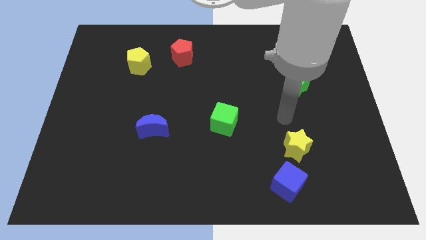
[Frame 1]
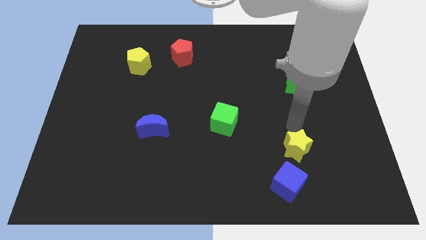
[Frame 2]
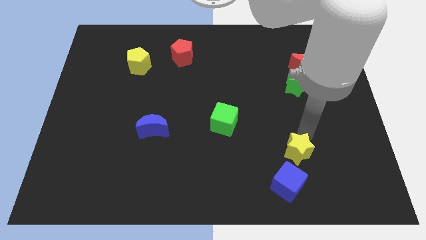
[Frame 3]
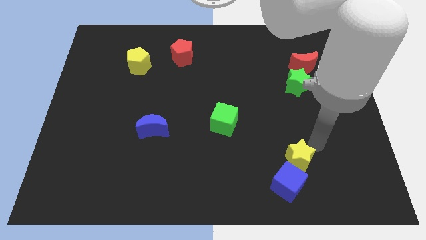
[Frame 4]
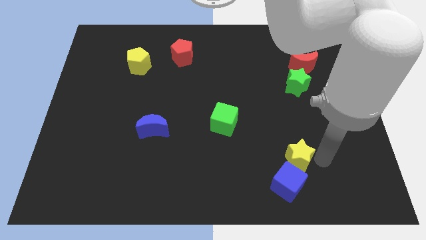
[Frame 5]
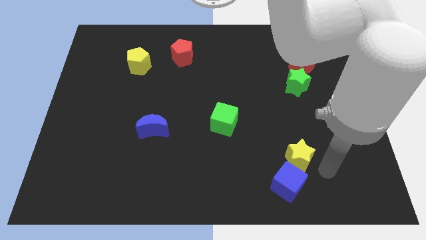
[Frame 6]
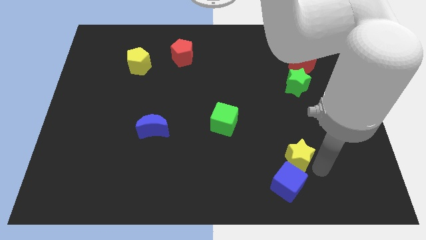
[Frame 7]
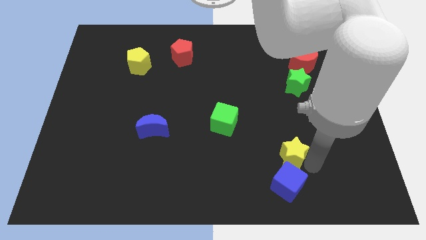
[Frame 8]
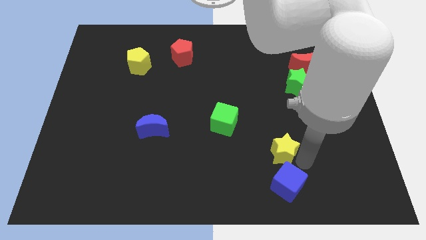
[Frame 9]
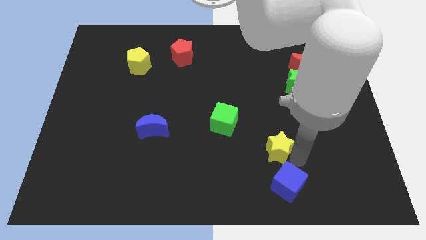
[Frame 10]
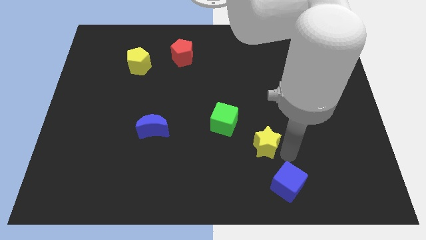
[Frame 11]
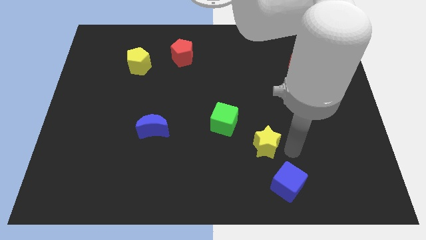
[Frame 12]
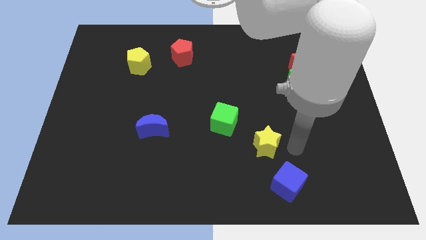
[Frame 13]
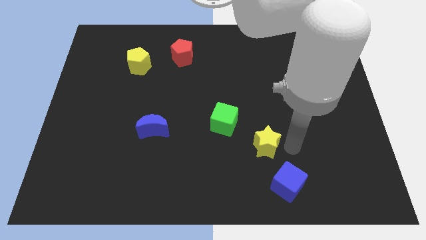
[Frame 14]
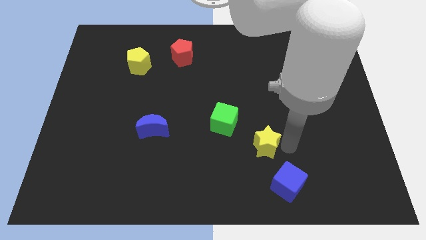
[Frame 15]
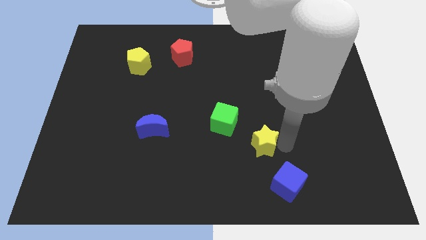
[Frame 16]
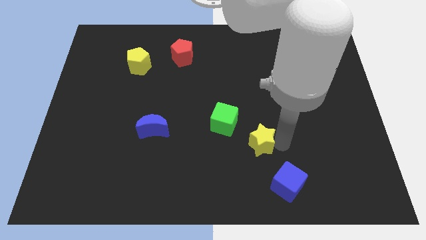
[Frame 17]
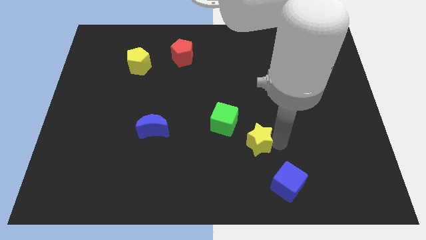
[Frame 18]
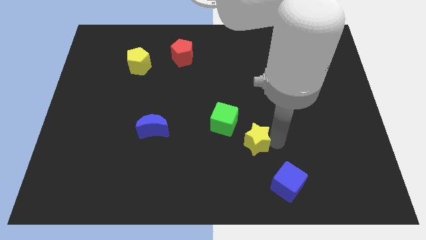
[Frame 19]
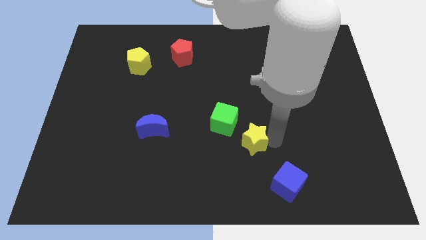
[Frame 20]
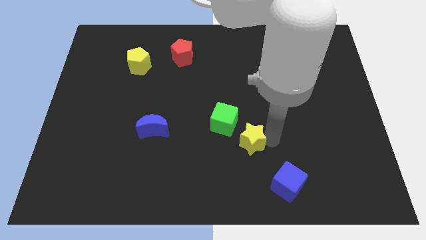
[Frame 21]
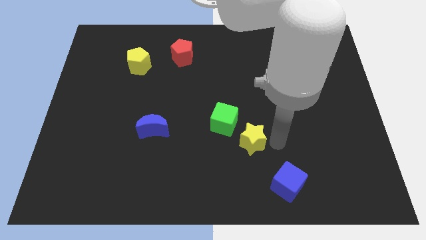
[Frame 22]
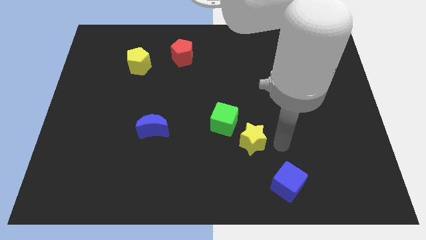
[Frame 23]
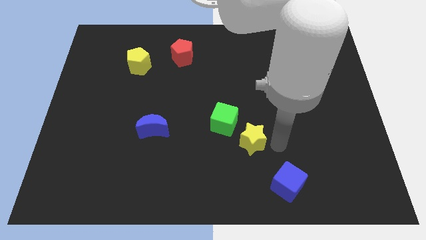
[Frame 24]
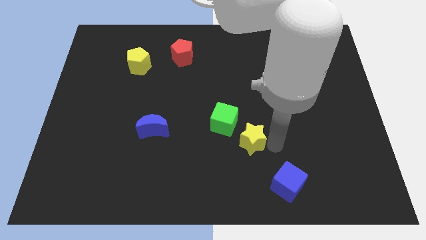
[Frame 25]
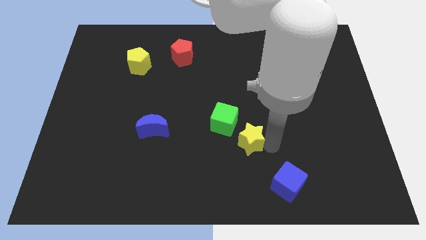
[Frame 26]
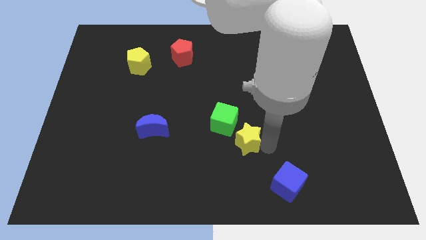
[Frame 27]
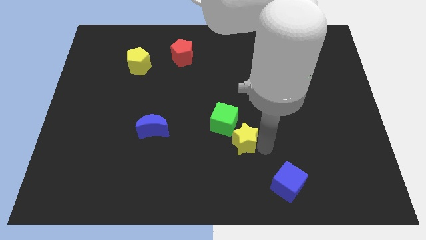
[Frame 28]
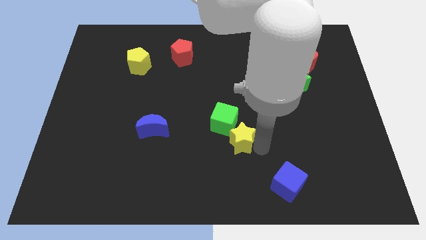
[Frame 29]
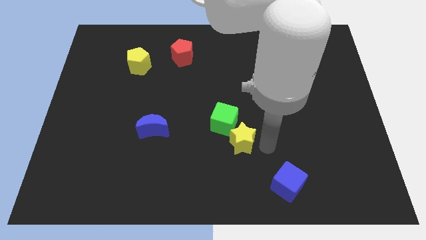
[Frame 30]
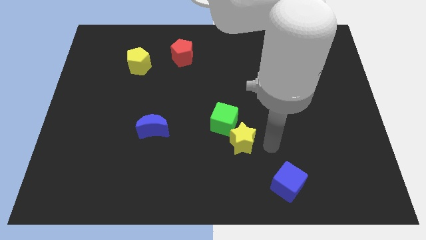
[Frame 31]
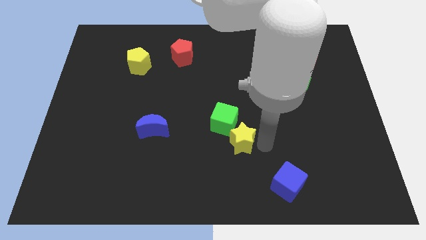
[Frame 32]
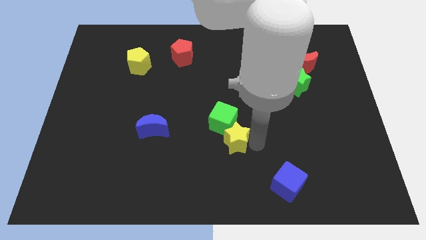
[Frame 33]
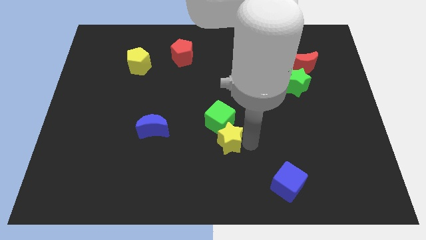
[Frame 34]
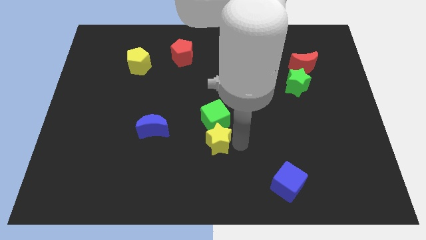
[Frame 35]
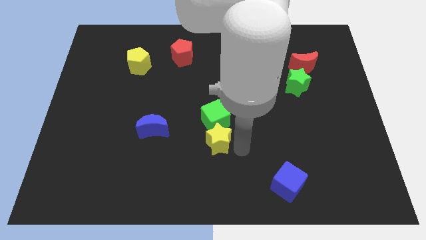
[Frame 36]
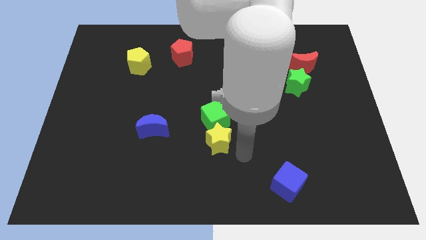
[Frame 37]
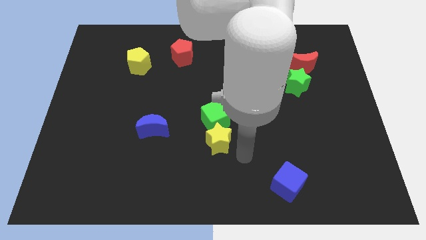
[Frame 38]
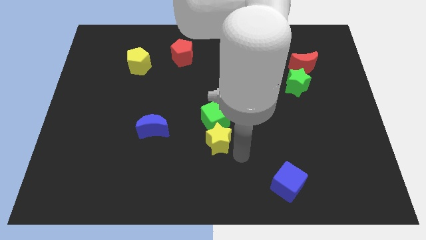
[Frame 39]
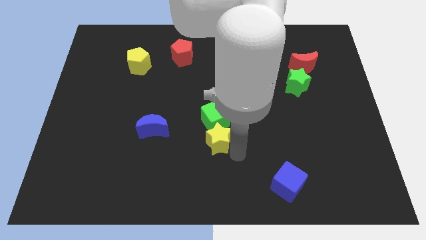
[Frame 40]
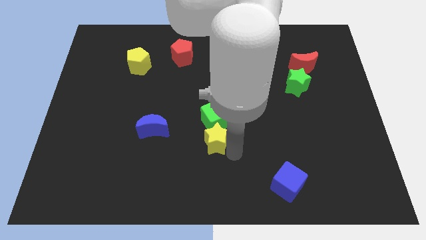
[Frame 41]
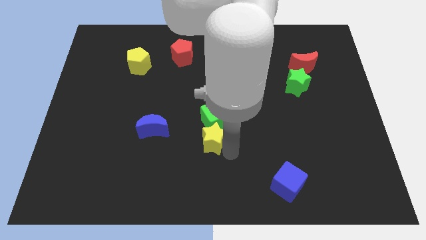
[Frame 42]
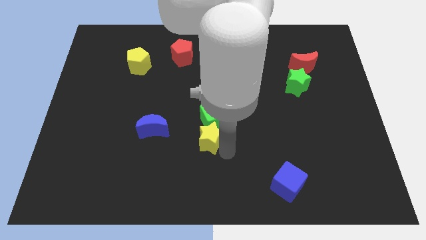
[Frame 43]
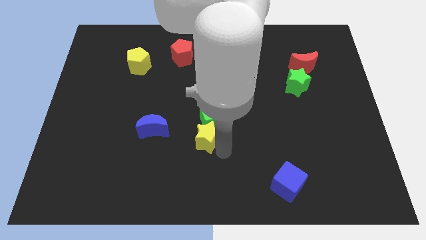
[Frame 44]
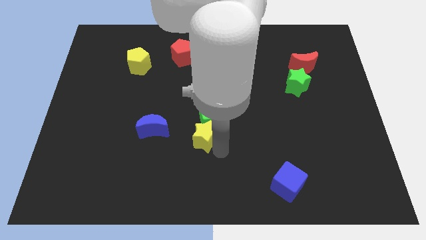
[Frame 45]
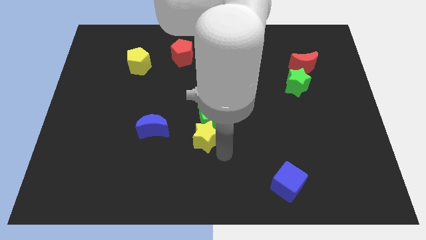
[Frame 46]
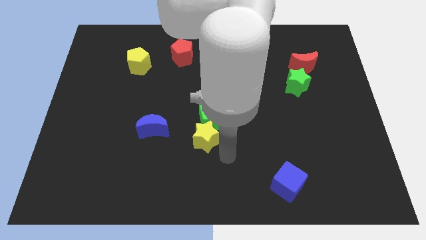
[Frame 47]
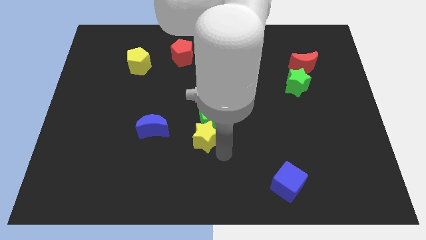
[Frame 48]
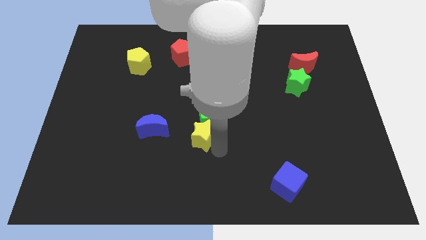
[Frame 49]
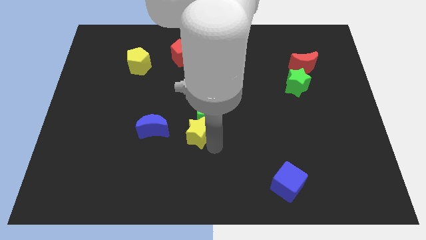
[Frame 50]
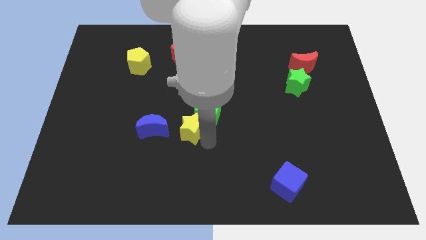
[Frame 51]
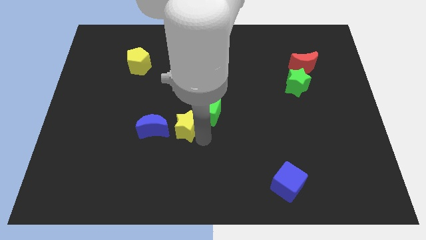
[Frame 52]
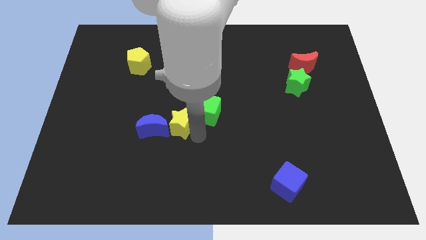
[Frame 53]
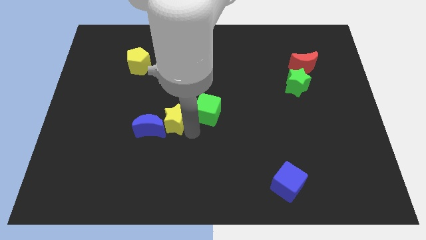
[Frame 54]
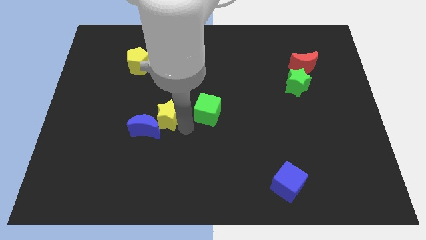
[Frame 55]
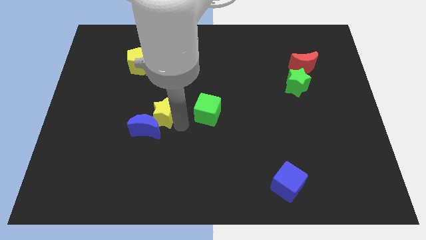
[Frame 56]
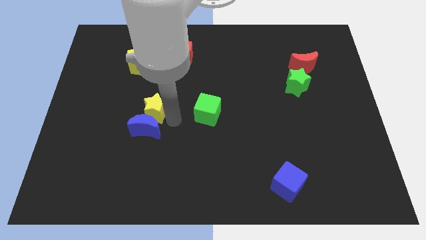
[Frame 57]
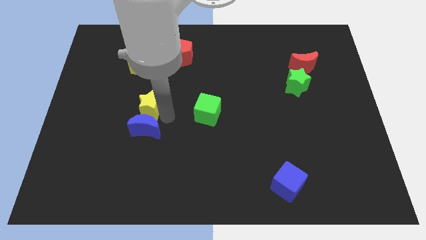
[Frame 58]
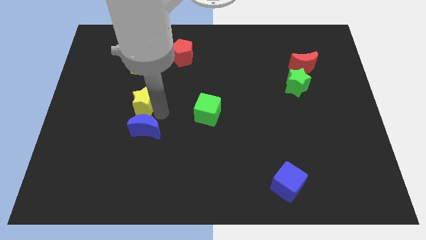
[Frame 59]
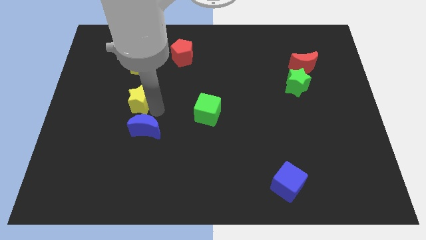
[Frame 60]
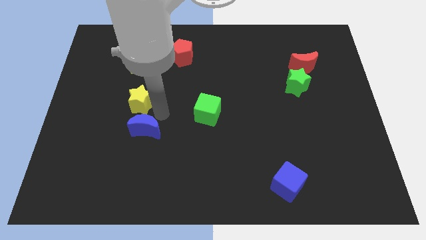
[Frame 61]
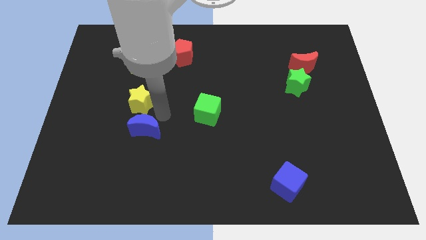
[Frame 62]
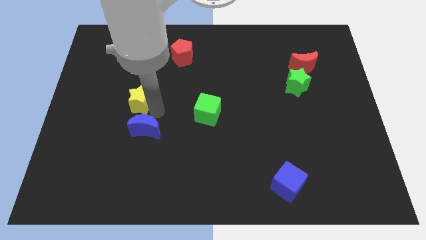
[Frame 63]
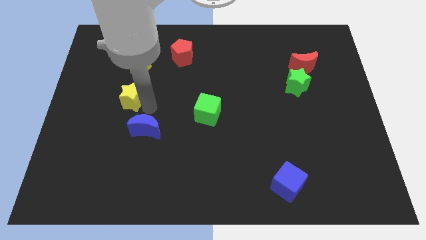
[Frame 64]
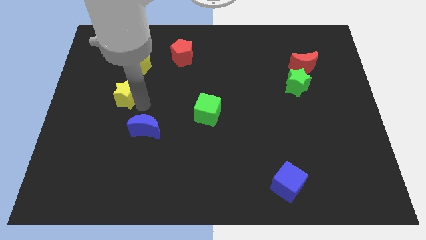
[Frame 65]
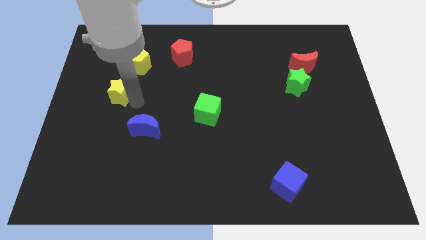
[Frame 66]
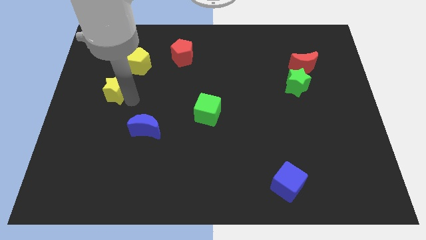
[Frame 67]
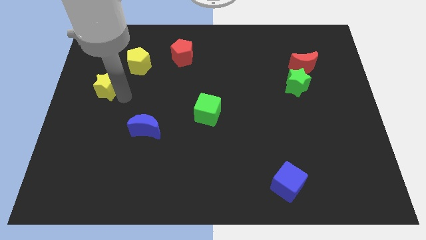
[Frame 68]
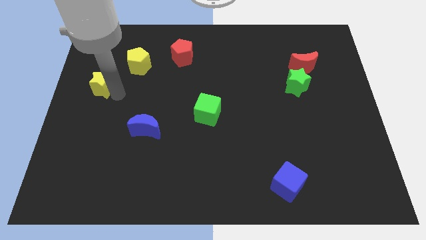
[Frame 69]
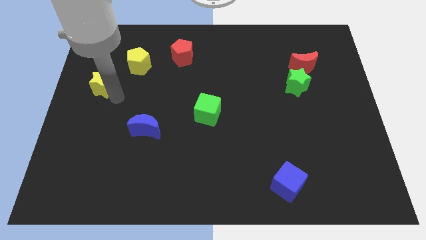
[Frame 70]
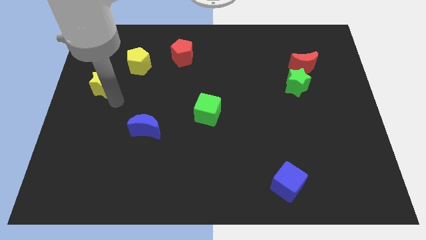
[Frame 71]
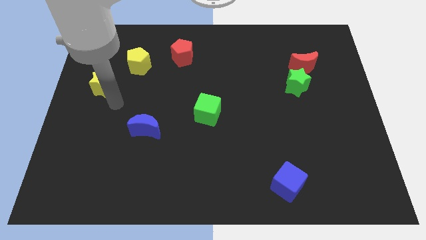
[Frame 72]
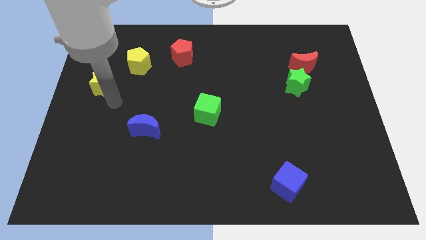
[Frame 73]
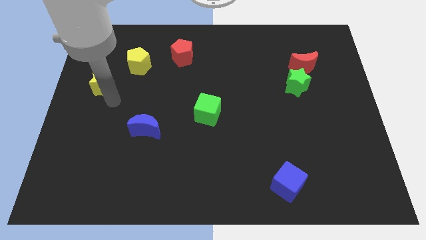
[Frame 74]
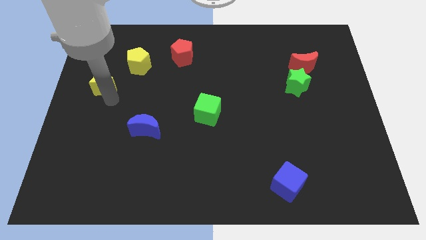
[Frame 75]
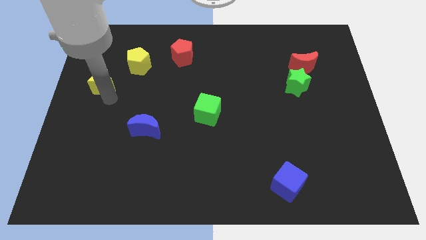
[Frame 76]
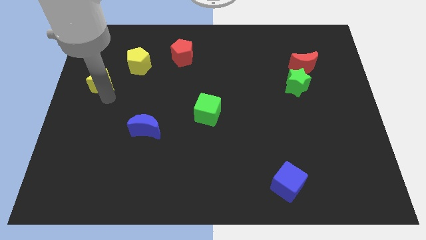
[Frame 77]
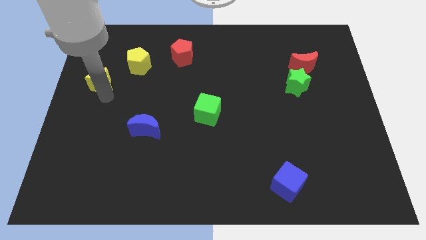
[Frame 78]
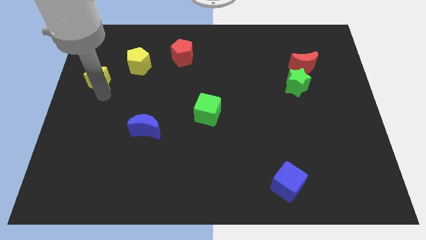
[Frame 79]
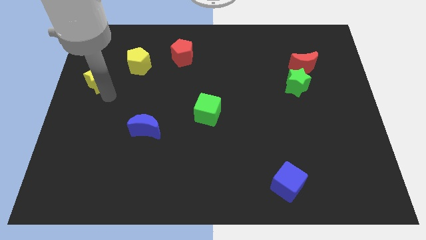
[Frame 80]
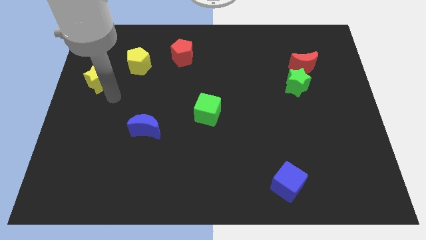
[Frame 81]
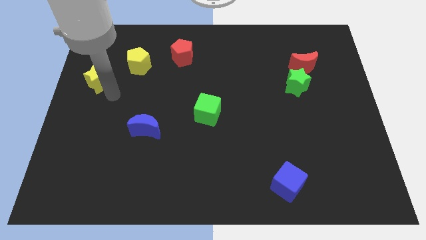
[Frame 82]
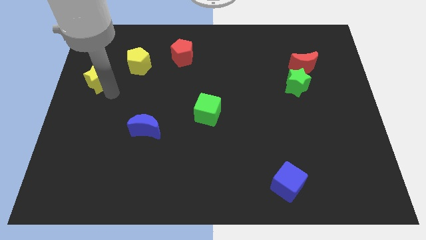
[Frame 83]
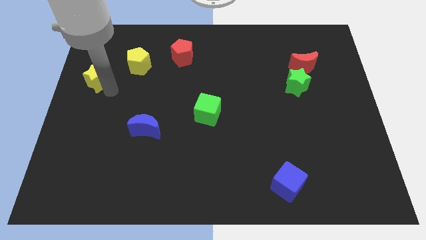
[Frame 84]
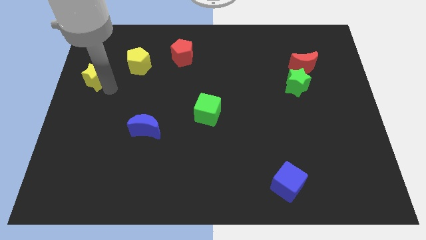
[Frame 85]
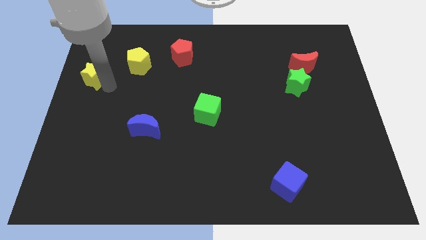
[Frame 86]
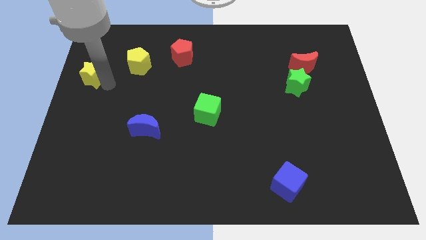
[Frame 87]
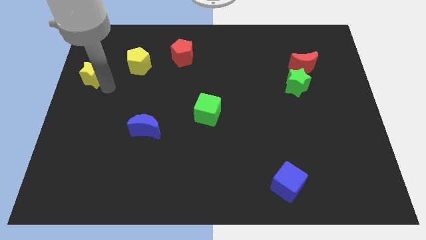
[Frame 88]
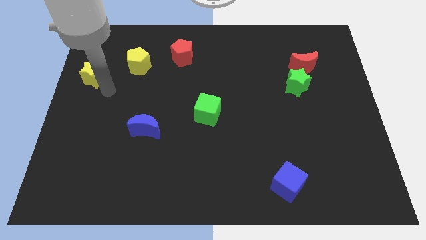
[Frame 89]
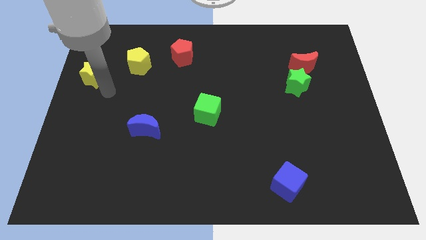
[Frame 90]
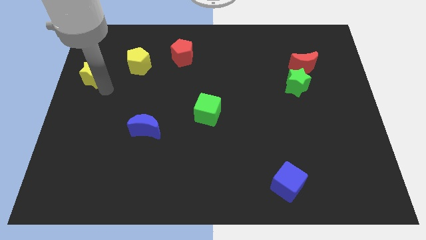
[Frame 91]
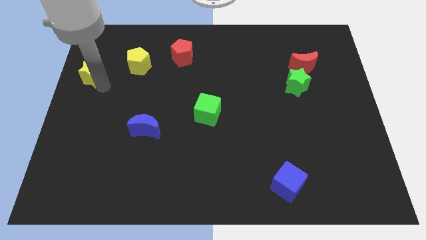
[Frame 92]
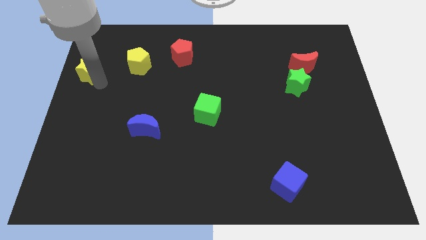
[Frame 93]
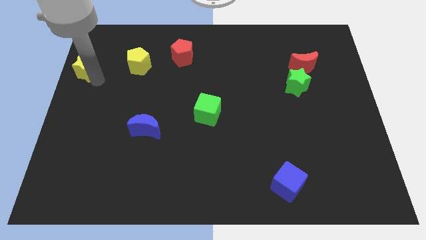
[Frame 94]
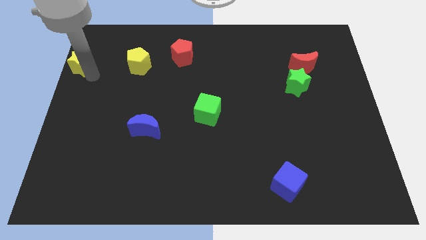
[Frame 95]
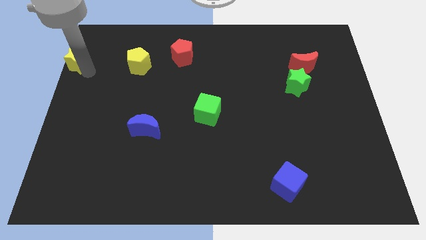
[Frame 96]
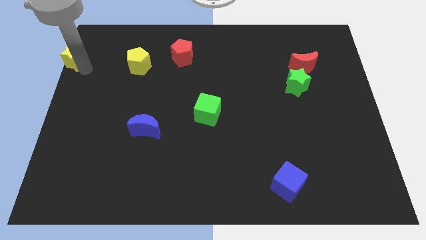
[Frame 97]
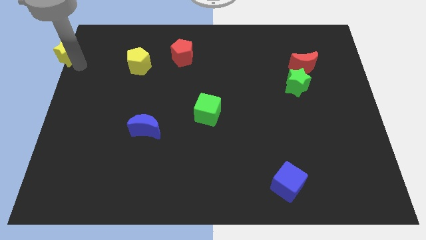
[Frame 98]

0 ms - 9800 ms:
slide the yellow star to the top left
